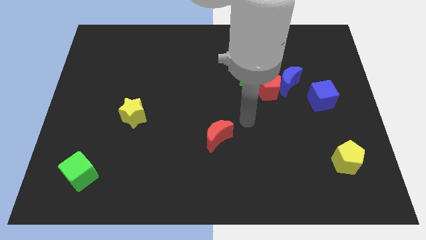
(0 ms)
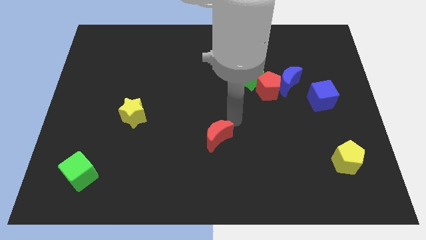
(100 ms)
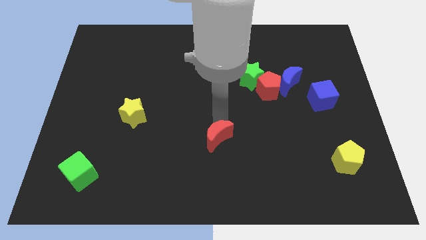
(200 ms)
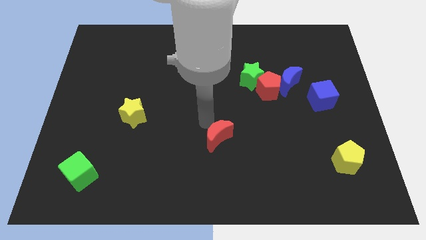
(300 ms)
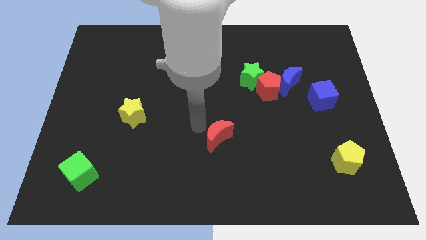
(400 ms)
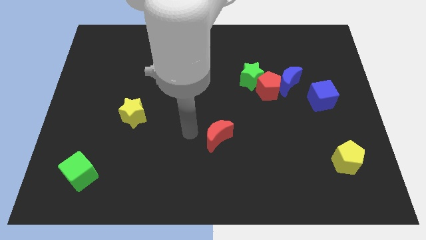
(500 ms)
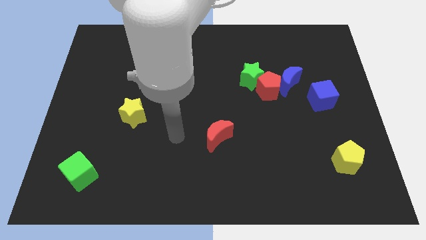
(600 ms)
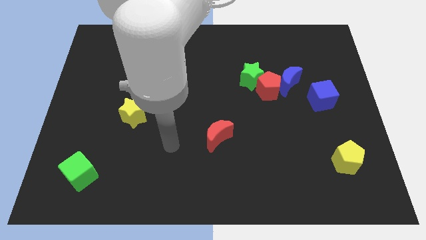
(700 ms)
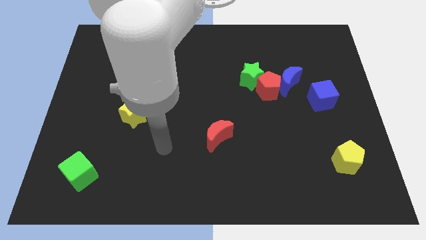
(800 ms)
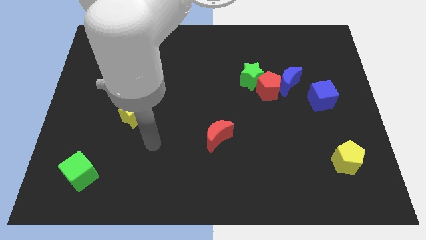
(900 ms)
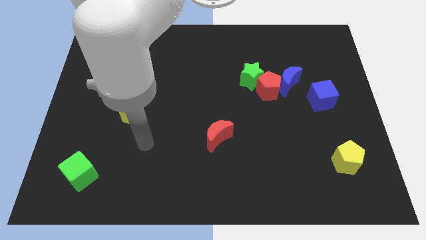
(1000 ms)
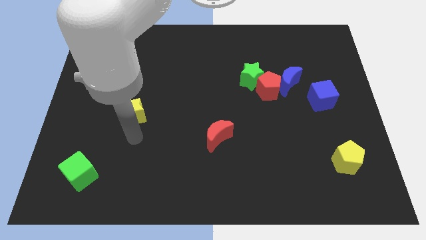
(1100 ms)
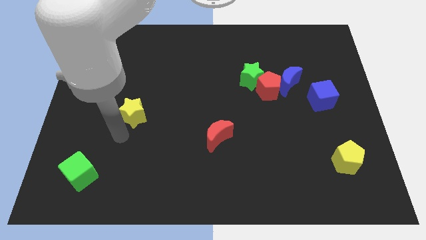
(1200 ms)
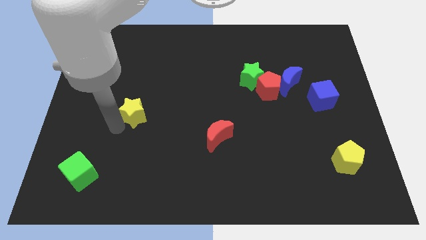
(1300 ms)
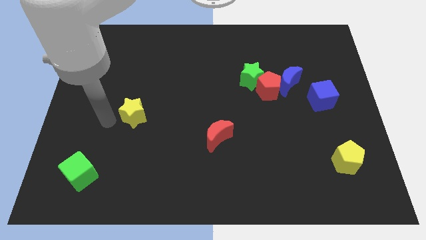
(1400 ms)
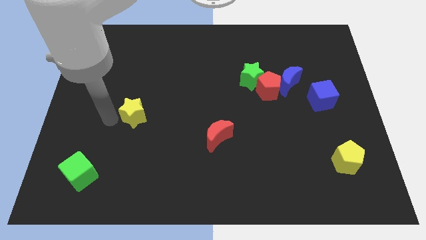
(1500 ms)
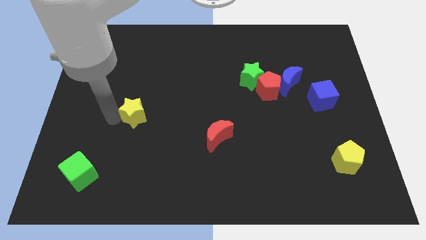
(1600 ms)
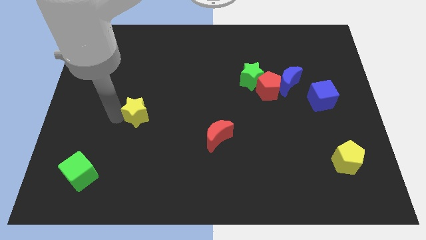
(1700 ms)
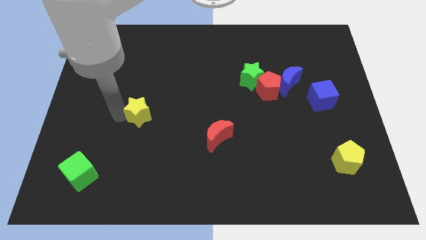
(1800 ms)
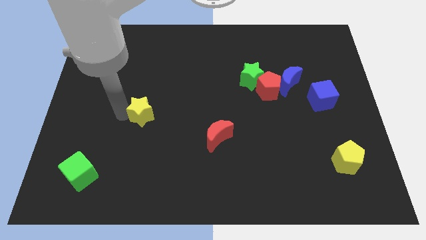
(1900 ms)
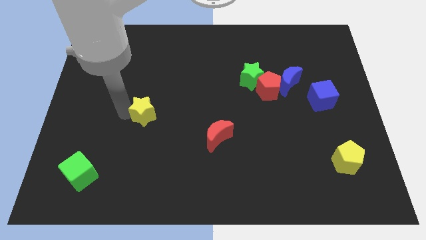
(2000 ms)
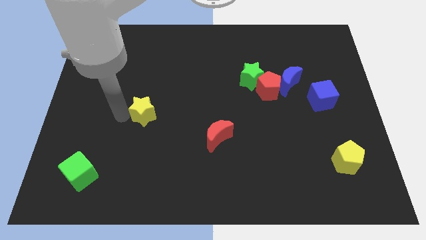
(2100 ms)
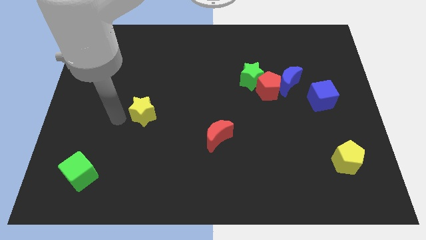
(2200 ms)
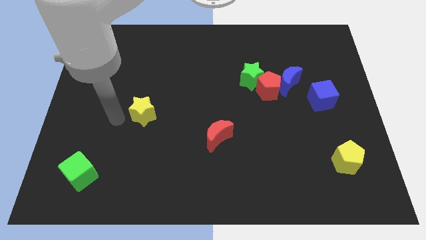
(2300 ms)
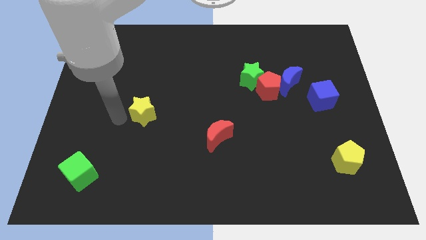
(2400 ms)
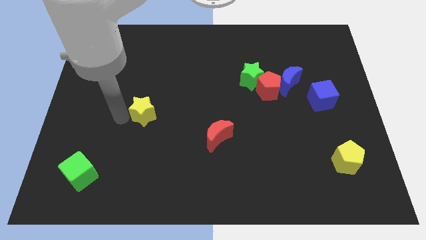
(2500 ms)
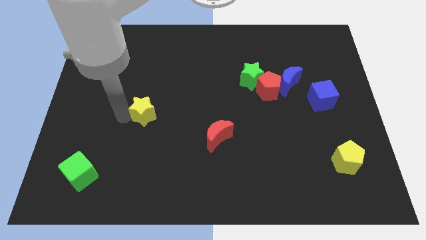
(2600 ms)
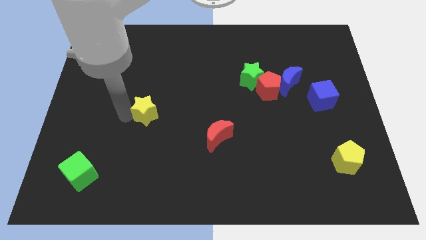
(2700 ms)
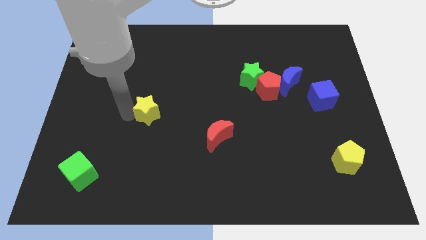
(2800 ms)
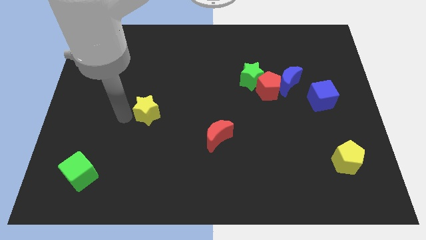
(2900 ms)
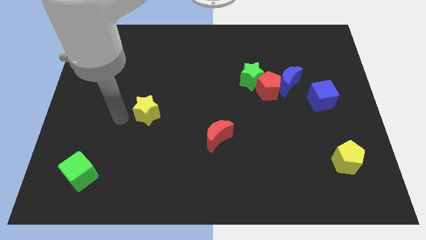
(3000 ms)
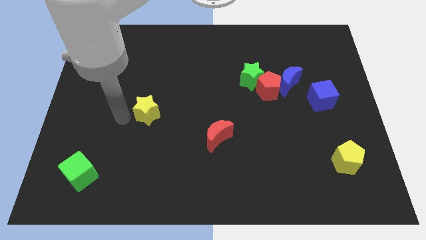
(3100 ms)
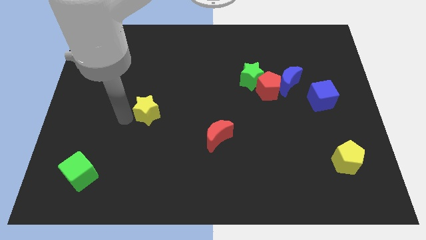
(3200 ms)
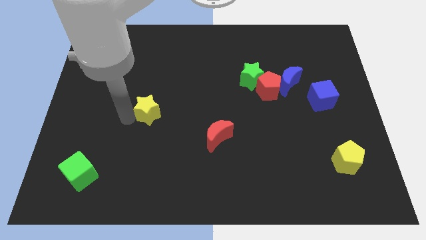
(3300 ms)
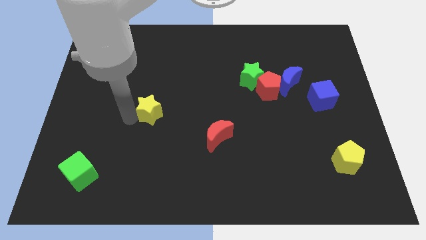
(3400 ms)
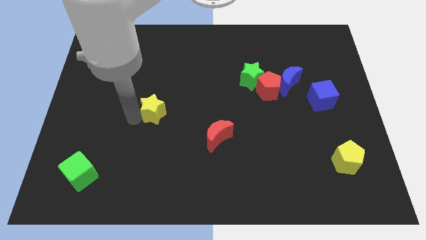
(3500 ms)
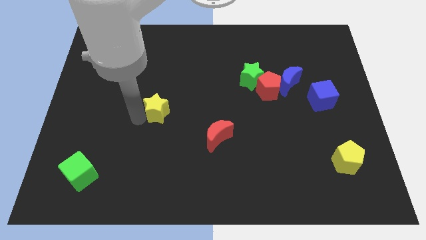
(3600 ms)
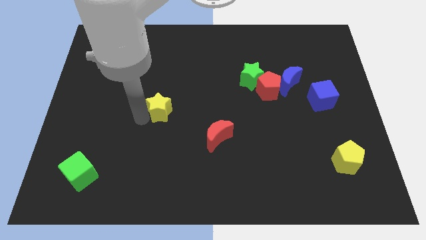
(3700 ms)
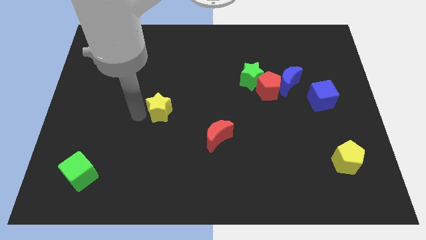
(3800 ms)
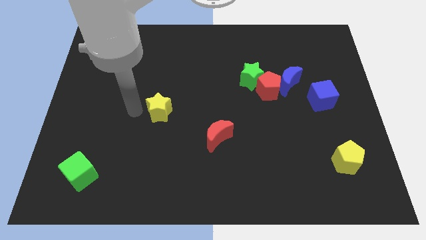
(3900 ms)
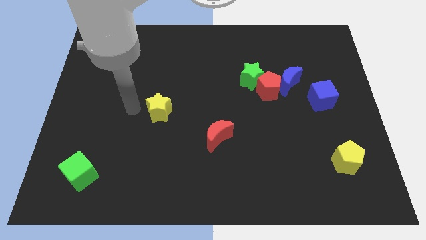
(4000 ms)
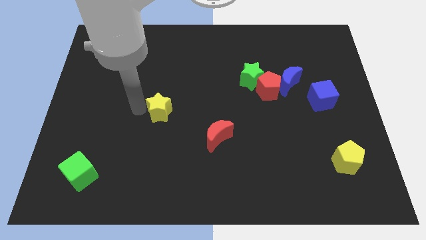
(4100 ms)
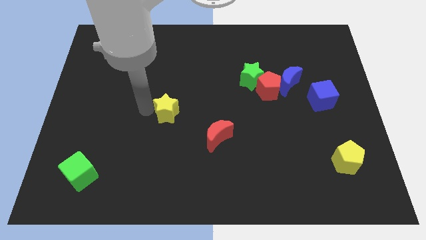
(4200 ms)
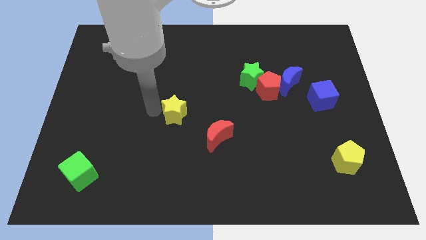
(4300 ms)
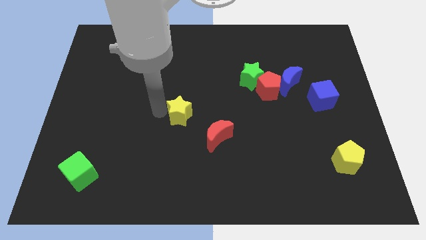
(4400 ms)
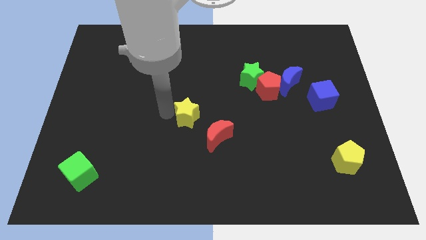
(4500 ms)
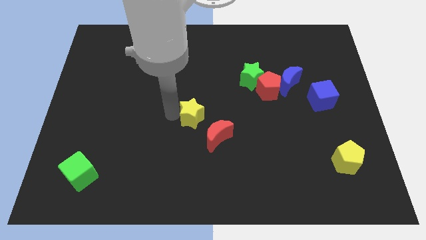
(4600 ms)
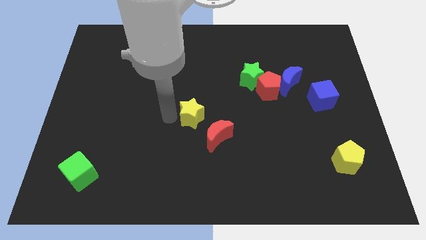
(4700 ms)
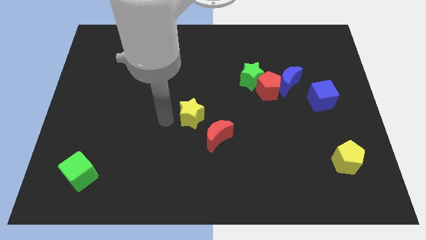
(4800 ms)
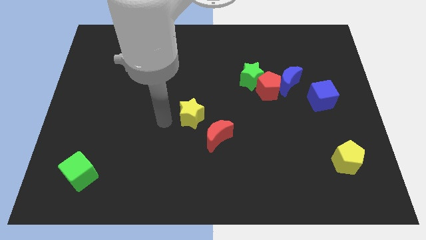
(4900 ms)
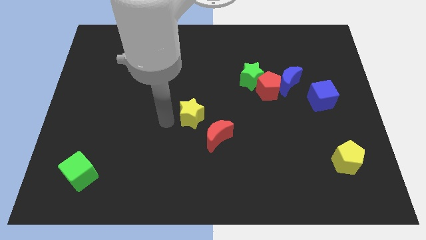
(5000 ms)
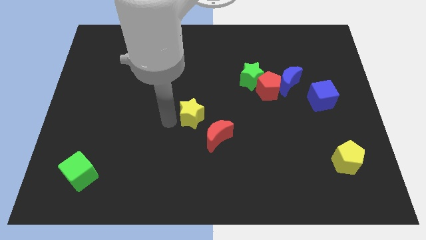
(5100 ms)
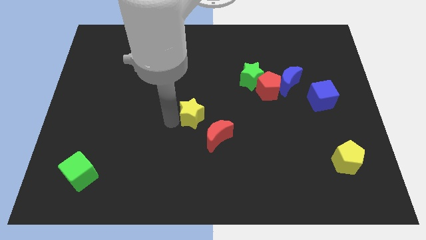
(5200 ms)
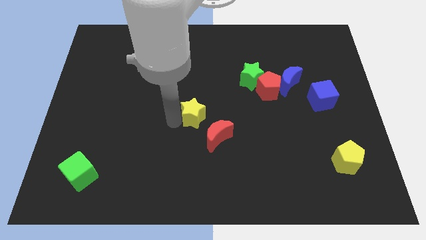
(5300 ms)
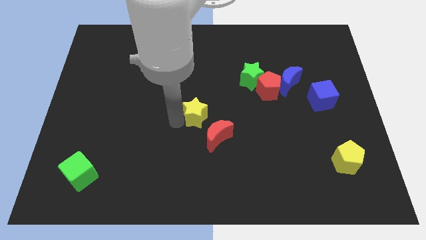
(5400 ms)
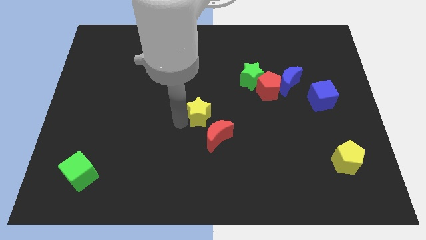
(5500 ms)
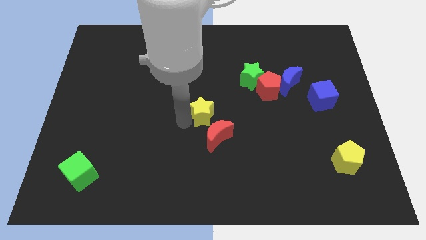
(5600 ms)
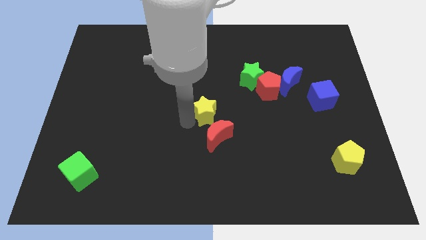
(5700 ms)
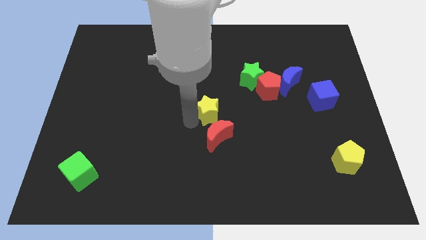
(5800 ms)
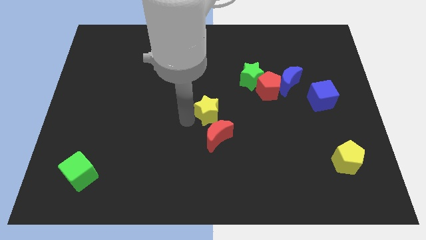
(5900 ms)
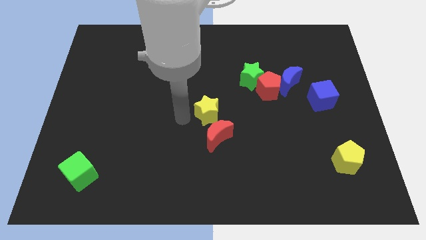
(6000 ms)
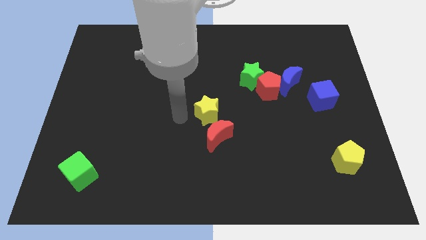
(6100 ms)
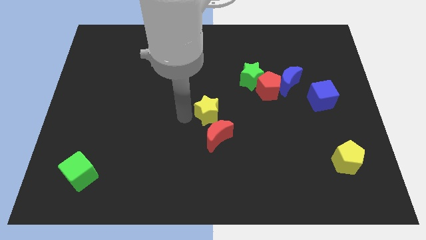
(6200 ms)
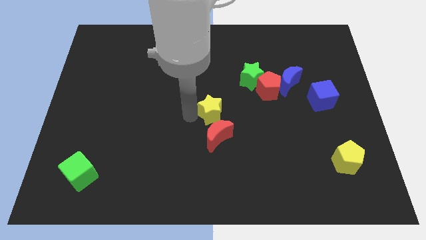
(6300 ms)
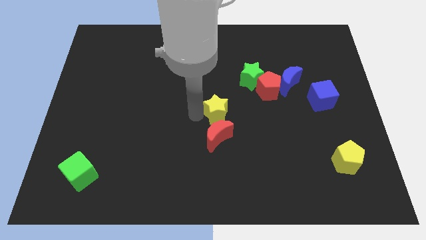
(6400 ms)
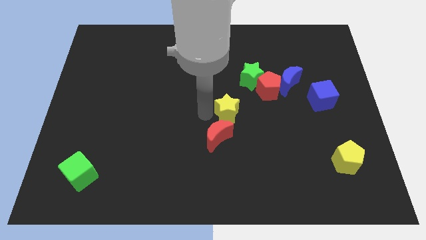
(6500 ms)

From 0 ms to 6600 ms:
slide the yellow star diagonally down and to the left of the red pentagon

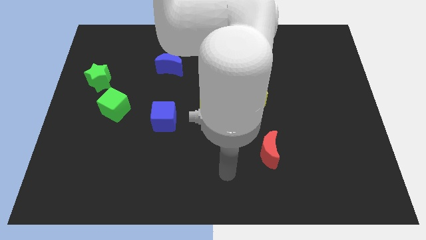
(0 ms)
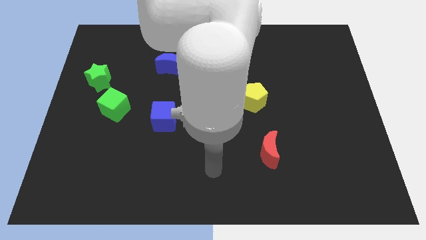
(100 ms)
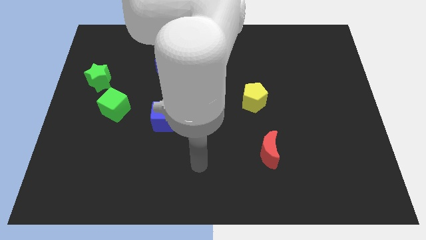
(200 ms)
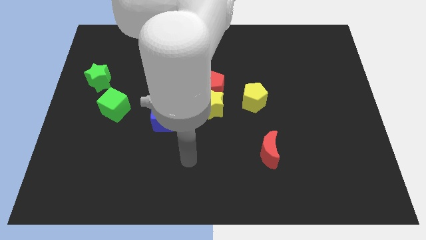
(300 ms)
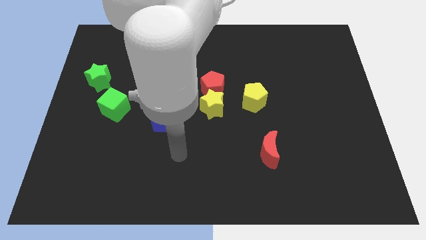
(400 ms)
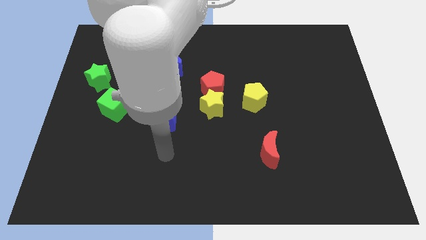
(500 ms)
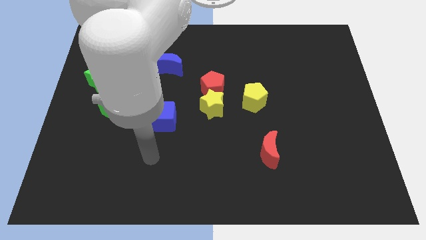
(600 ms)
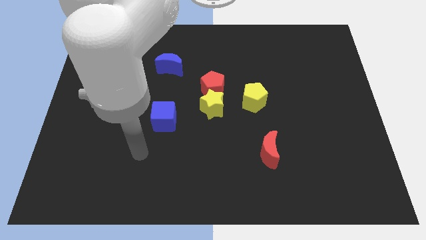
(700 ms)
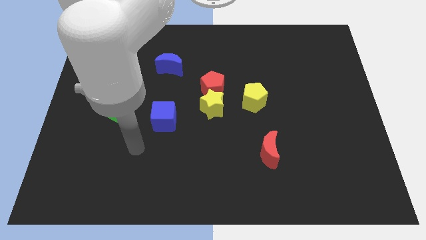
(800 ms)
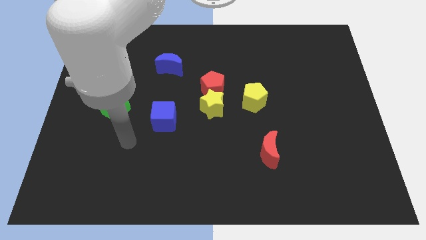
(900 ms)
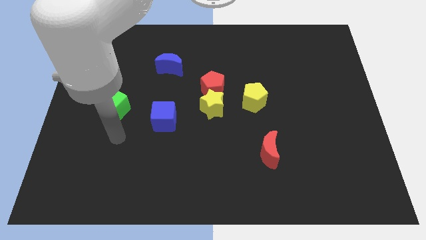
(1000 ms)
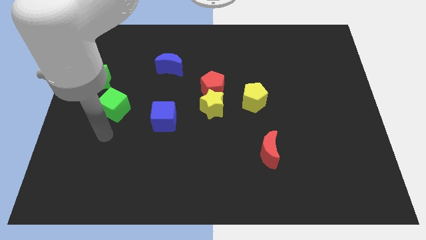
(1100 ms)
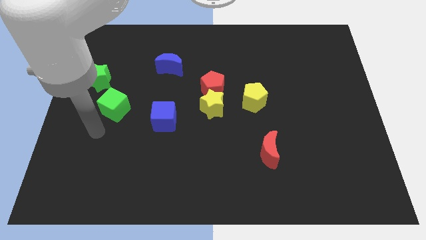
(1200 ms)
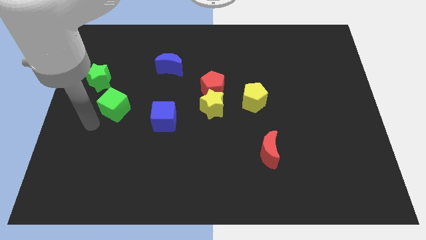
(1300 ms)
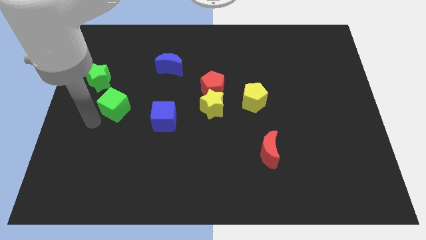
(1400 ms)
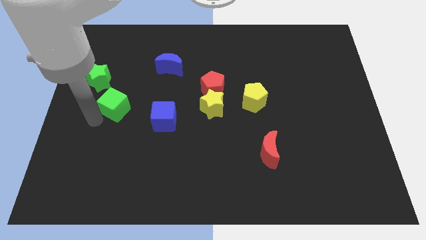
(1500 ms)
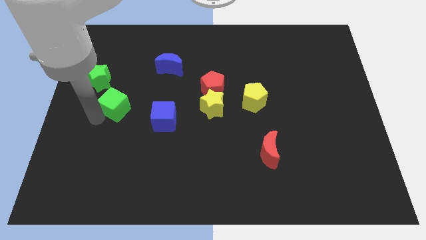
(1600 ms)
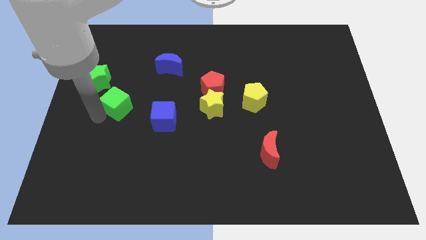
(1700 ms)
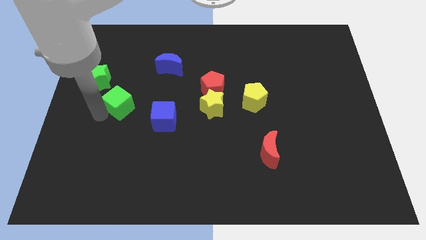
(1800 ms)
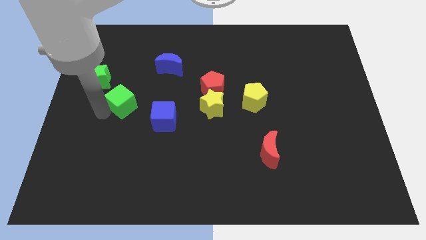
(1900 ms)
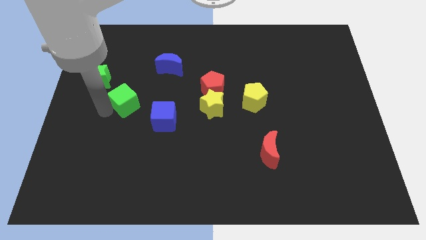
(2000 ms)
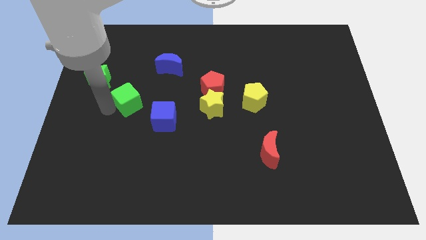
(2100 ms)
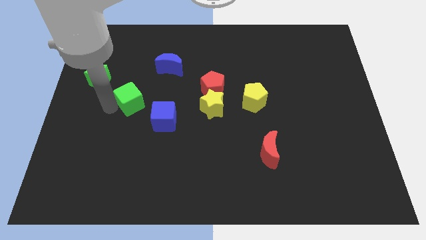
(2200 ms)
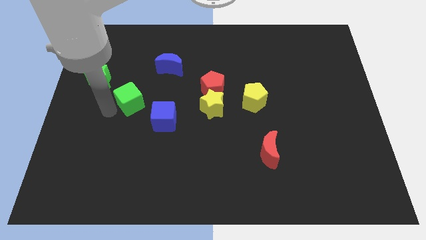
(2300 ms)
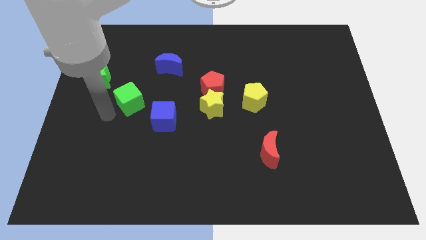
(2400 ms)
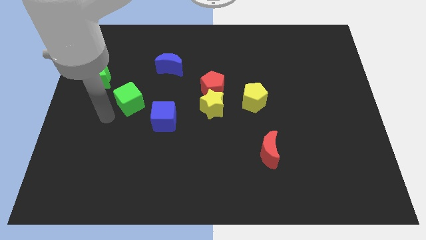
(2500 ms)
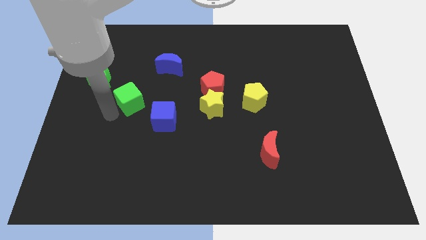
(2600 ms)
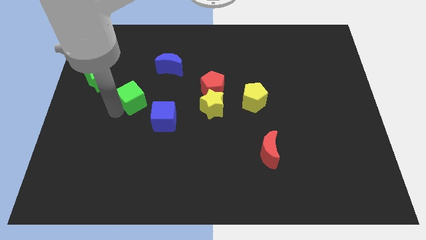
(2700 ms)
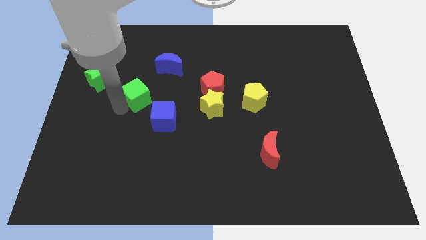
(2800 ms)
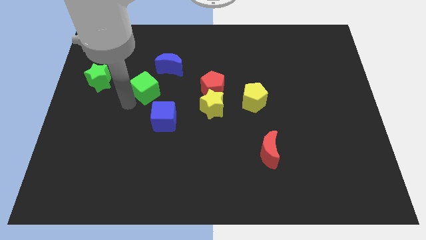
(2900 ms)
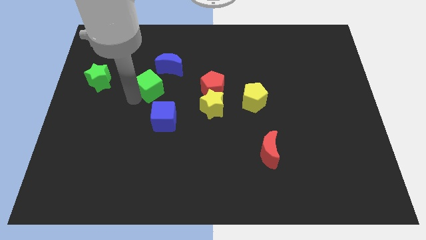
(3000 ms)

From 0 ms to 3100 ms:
slide the green cube above the blue cube
